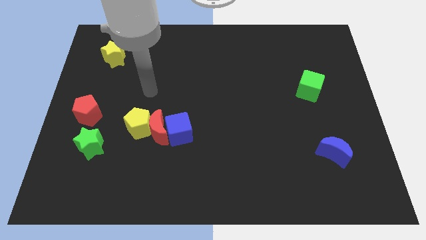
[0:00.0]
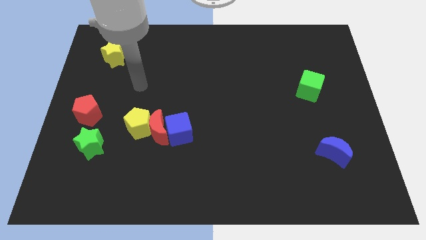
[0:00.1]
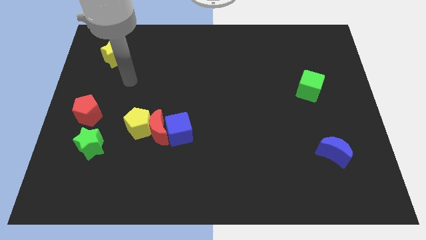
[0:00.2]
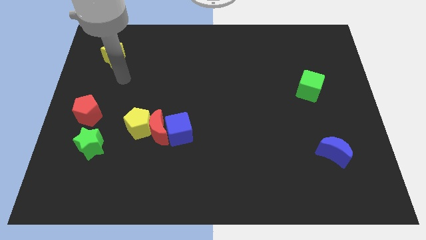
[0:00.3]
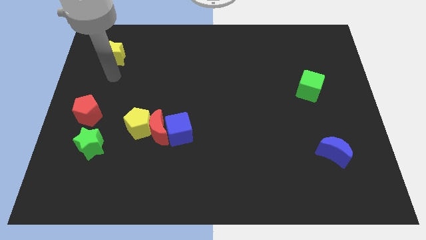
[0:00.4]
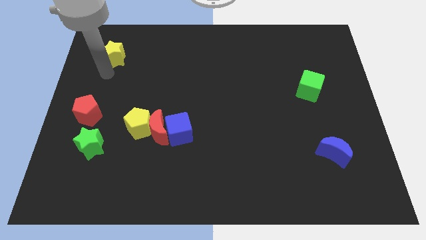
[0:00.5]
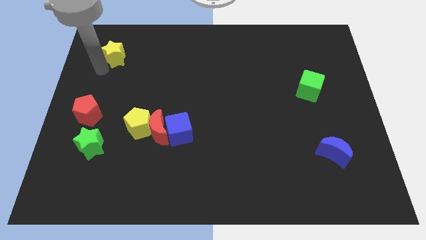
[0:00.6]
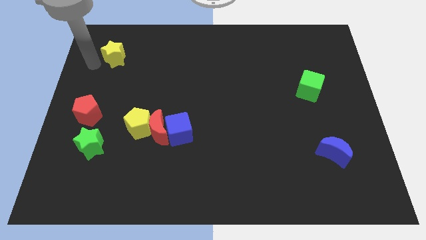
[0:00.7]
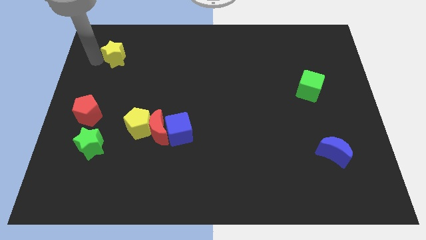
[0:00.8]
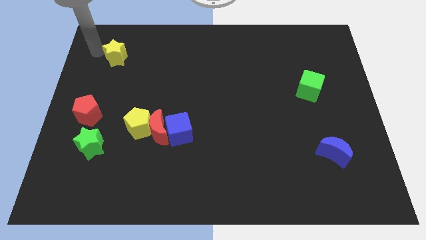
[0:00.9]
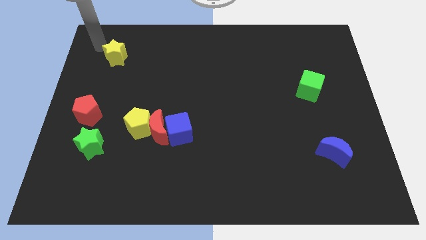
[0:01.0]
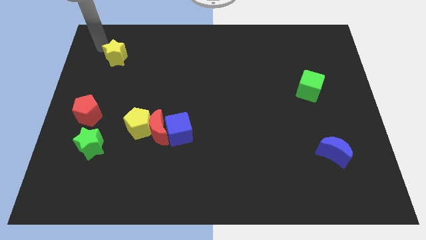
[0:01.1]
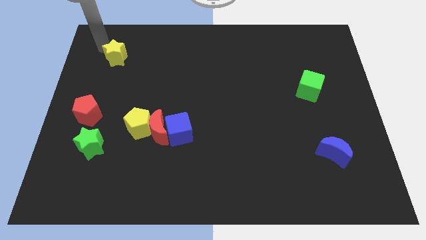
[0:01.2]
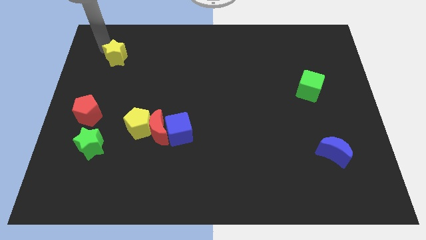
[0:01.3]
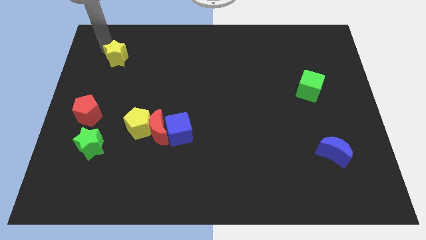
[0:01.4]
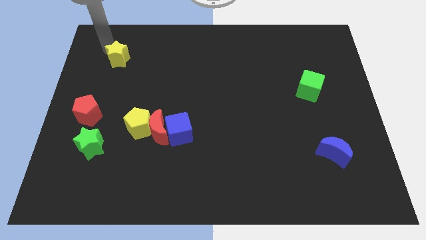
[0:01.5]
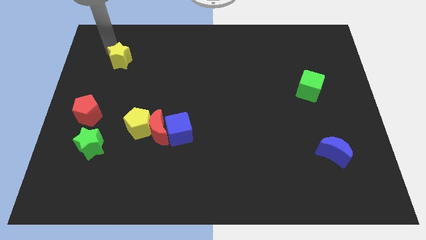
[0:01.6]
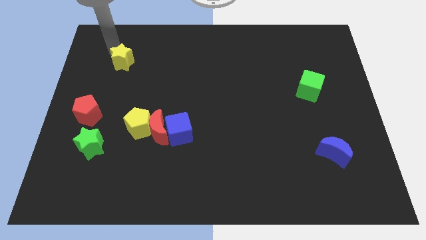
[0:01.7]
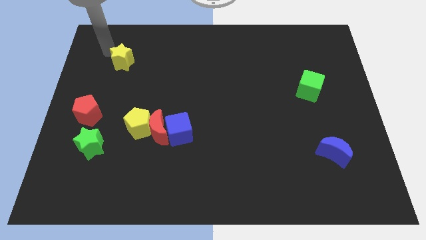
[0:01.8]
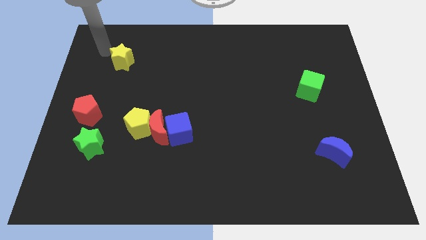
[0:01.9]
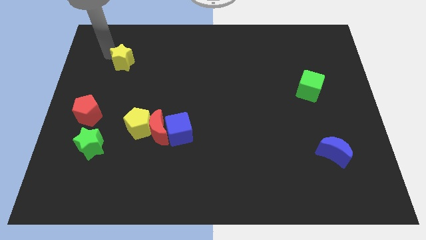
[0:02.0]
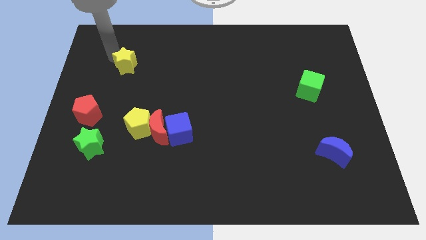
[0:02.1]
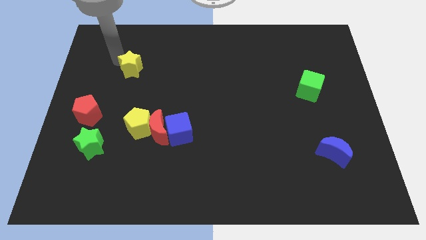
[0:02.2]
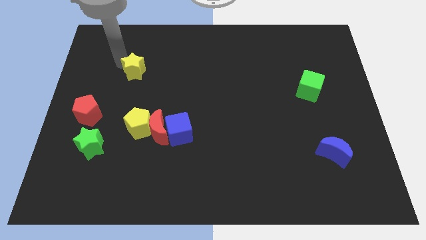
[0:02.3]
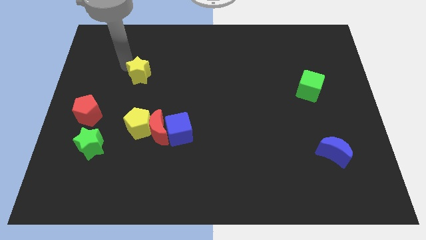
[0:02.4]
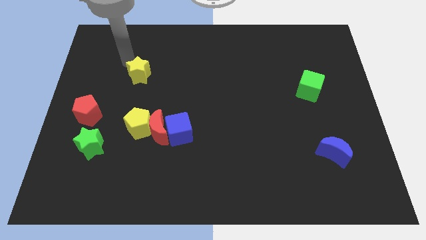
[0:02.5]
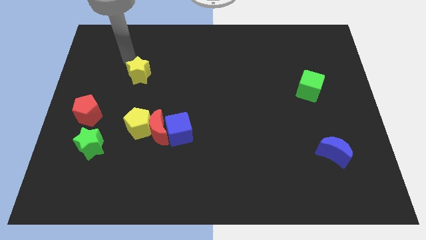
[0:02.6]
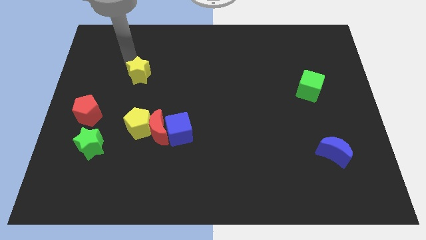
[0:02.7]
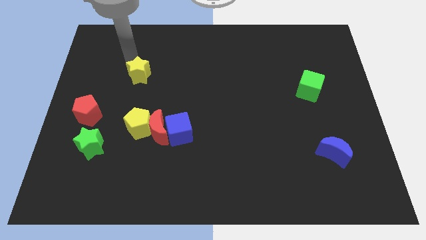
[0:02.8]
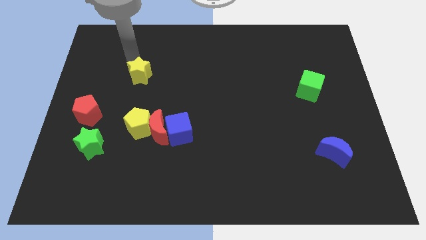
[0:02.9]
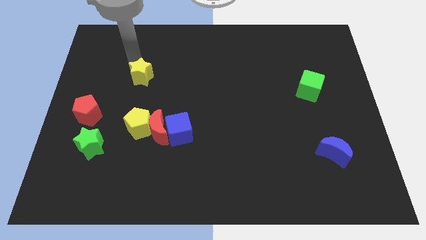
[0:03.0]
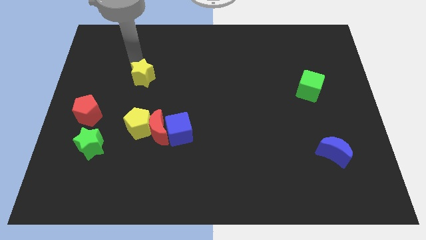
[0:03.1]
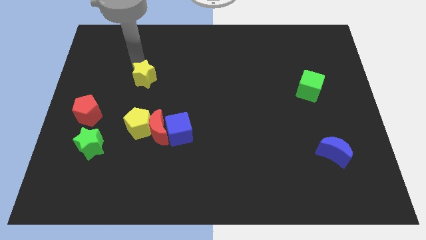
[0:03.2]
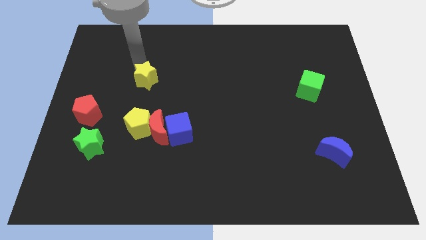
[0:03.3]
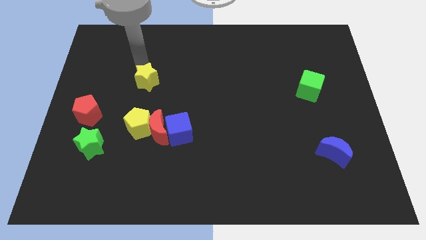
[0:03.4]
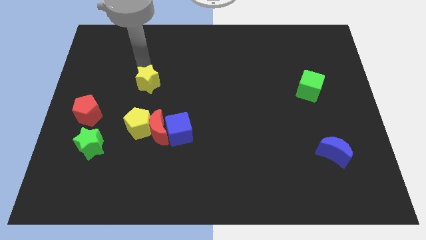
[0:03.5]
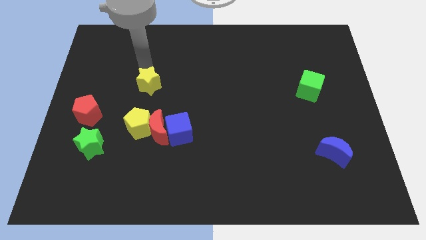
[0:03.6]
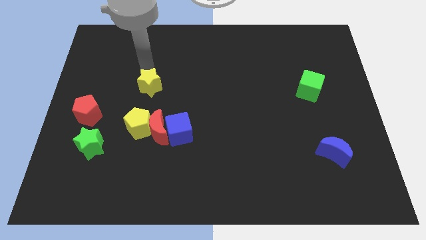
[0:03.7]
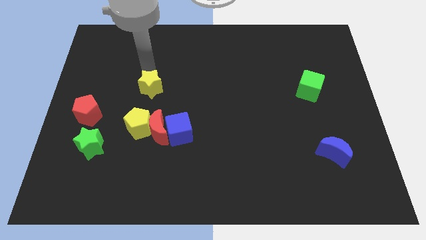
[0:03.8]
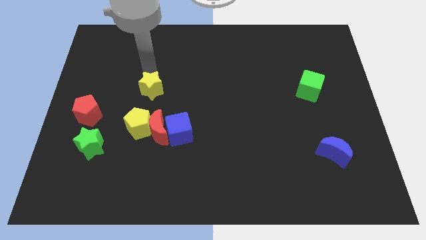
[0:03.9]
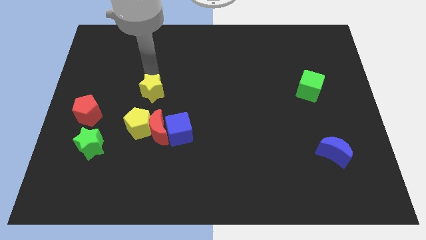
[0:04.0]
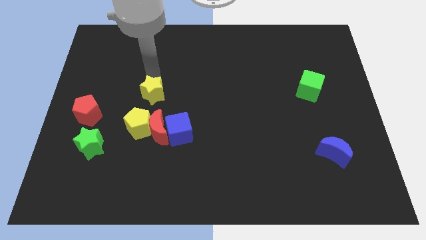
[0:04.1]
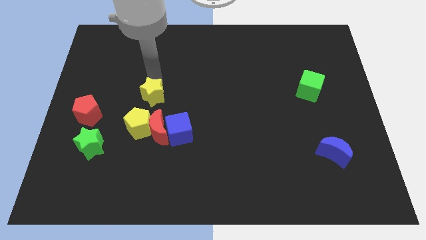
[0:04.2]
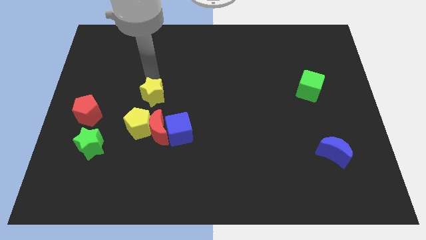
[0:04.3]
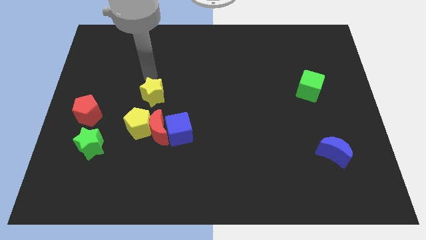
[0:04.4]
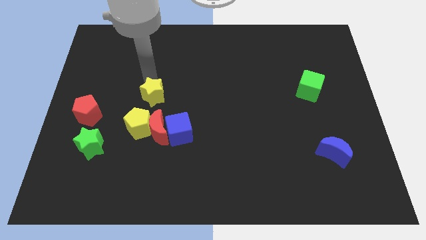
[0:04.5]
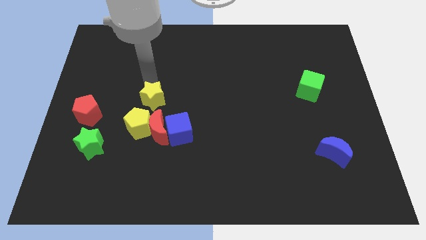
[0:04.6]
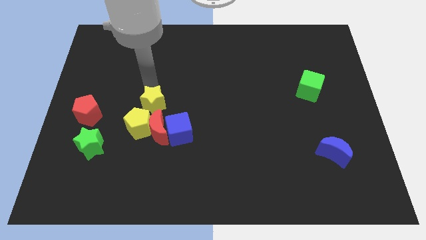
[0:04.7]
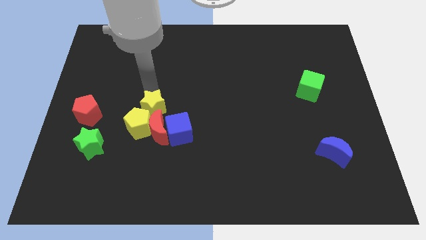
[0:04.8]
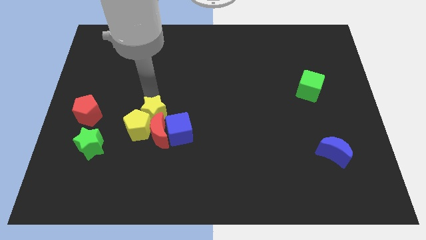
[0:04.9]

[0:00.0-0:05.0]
move the yellow star to the red moon

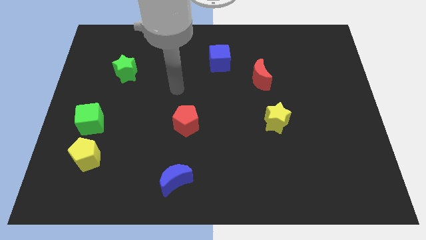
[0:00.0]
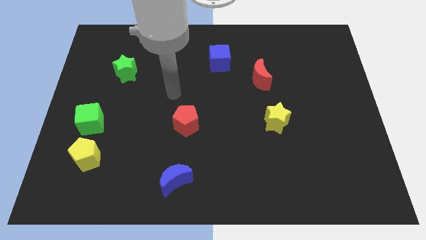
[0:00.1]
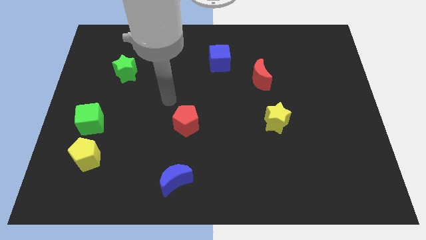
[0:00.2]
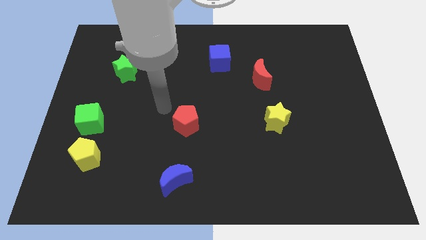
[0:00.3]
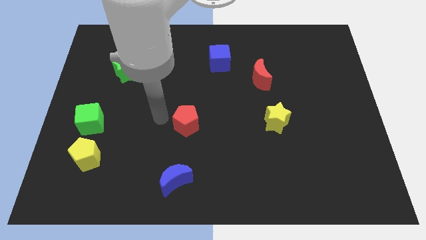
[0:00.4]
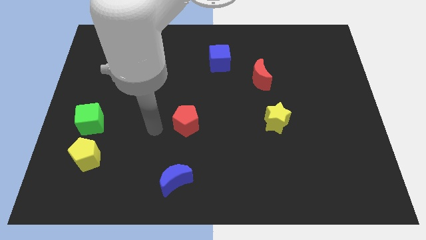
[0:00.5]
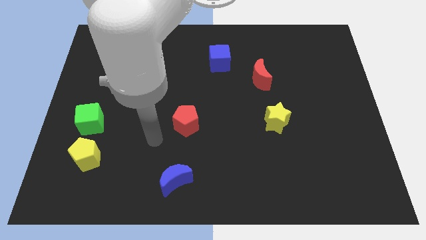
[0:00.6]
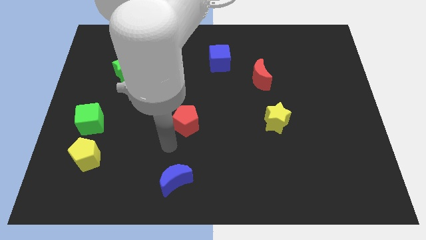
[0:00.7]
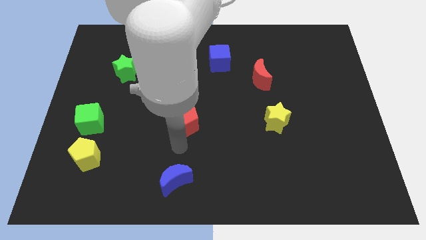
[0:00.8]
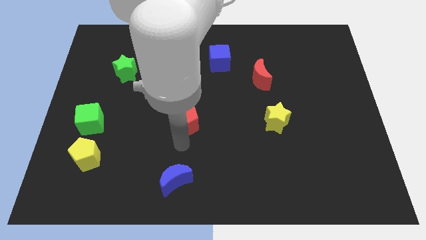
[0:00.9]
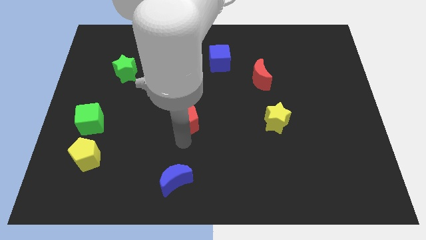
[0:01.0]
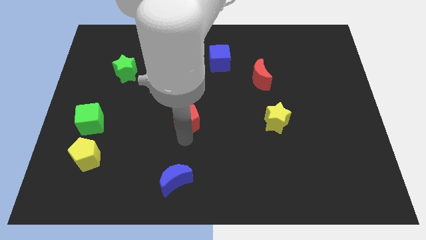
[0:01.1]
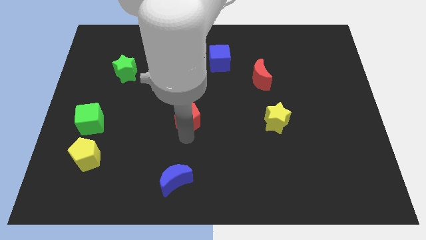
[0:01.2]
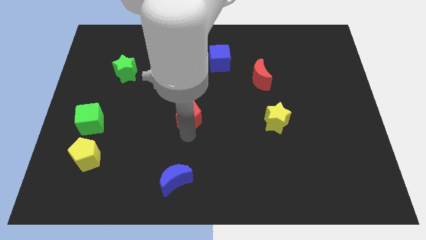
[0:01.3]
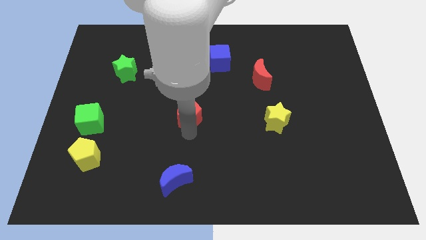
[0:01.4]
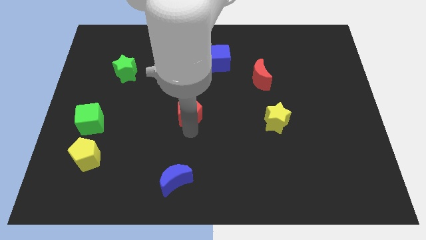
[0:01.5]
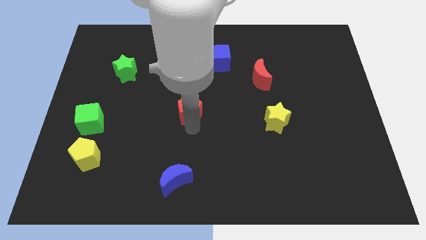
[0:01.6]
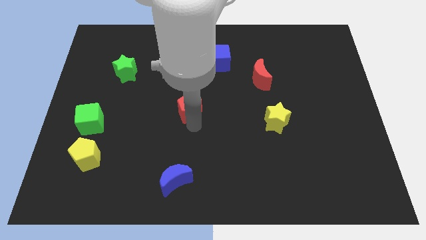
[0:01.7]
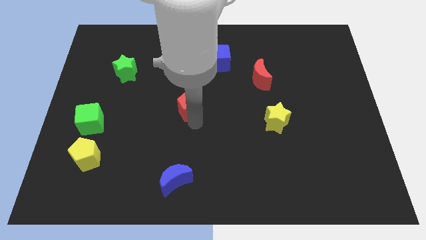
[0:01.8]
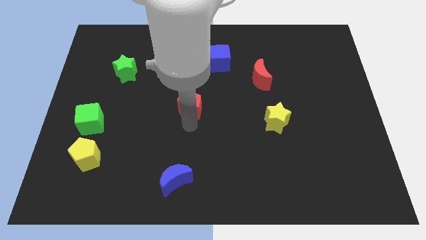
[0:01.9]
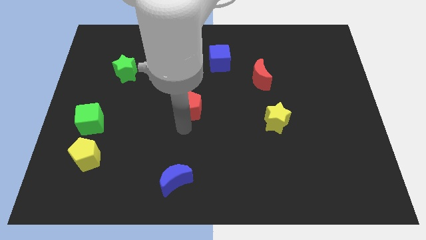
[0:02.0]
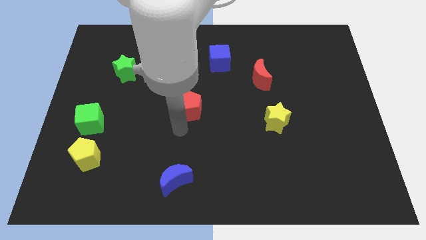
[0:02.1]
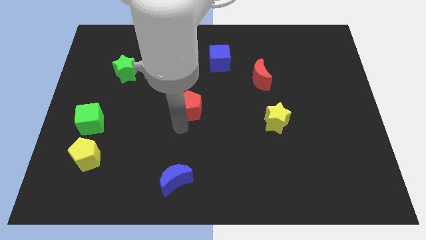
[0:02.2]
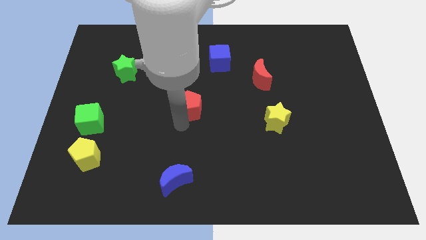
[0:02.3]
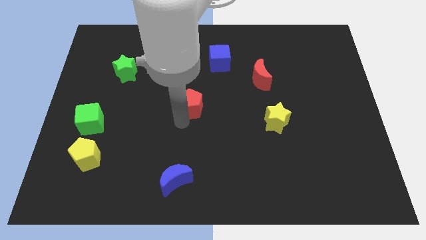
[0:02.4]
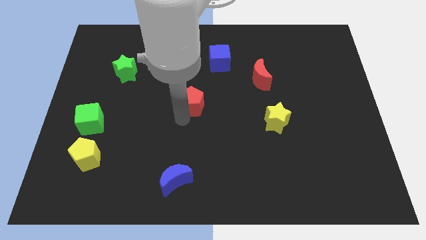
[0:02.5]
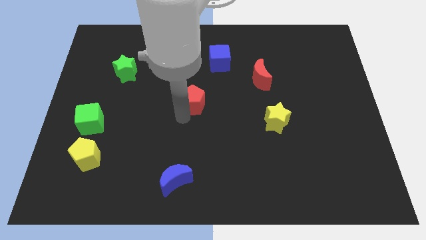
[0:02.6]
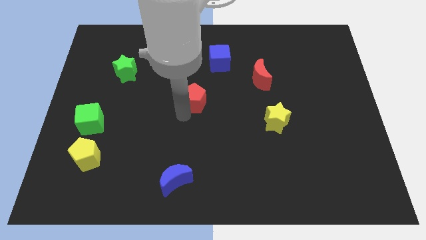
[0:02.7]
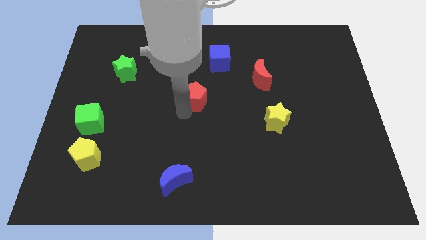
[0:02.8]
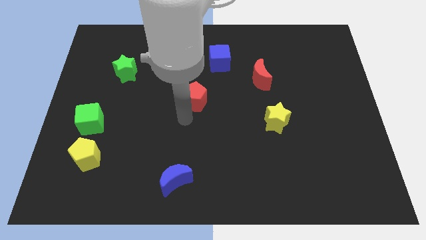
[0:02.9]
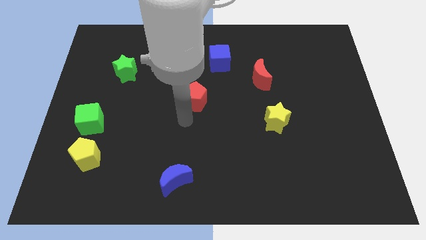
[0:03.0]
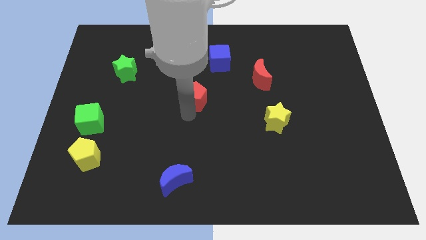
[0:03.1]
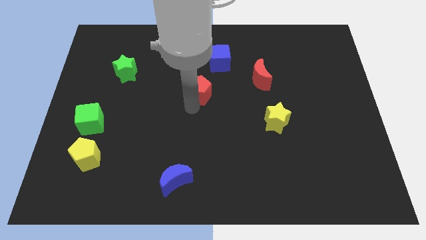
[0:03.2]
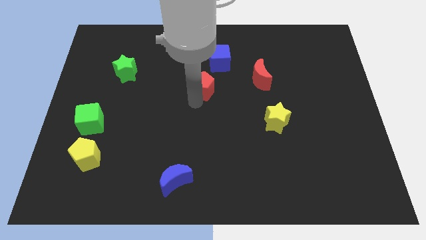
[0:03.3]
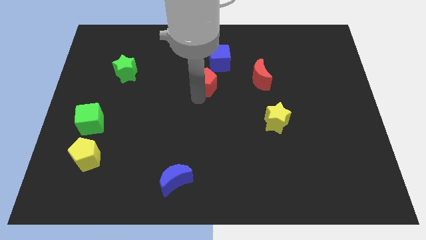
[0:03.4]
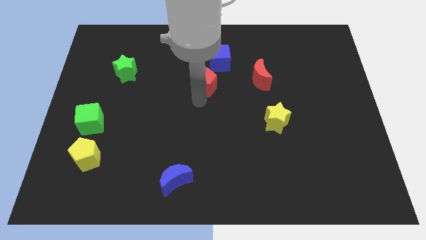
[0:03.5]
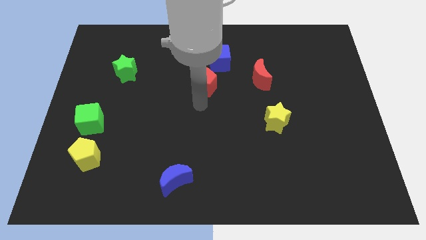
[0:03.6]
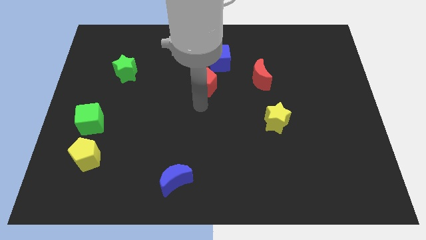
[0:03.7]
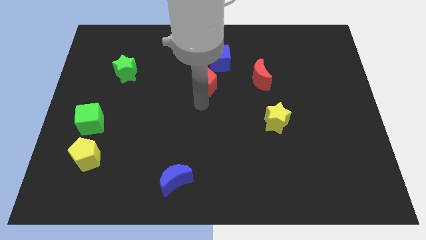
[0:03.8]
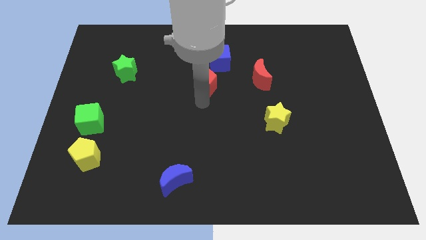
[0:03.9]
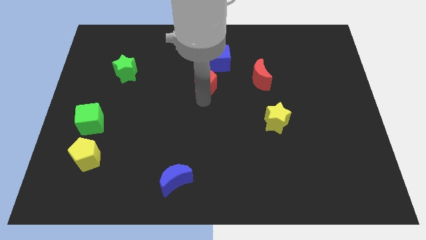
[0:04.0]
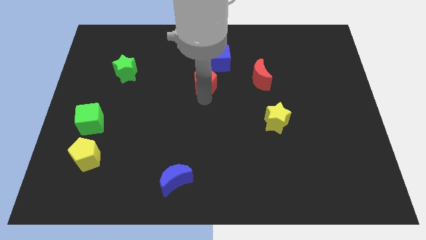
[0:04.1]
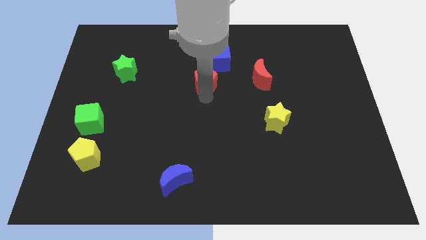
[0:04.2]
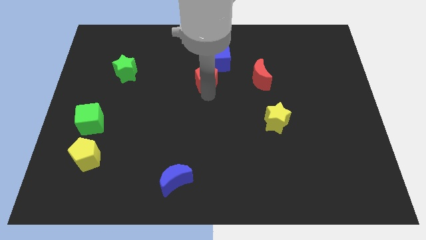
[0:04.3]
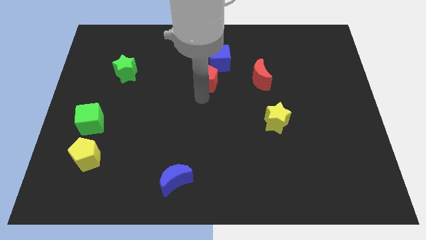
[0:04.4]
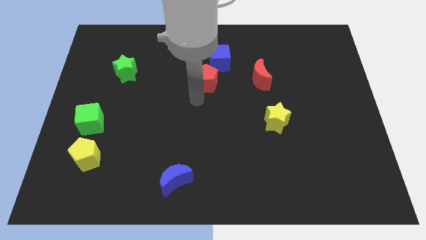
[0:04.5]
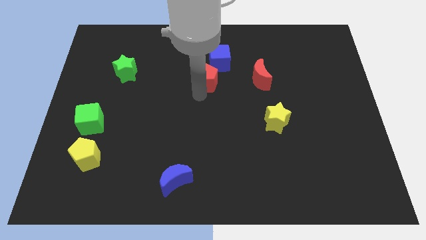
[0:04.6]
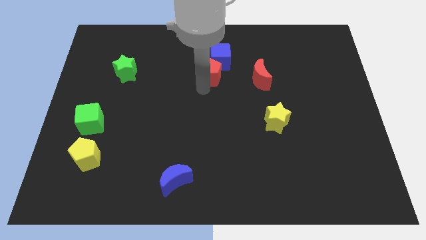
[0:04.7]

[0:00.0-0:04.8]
push the red pentagon towards the blue cube
